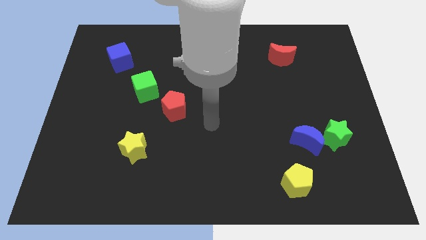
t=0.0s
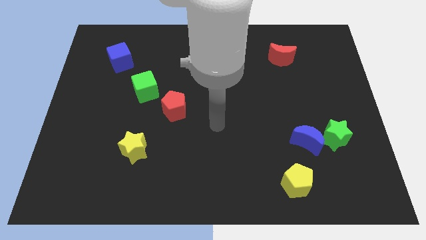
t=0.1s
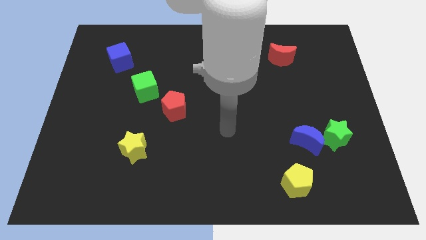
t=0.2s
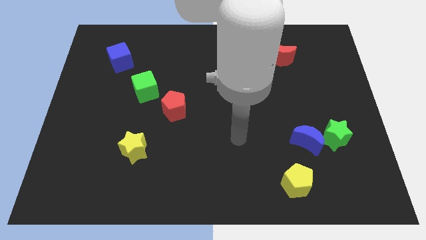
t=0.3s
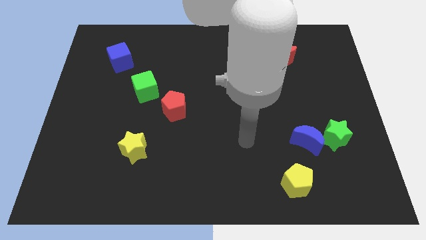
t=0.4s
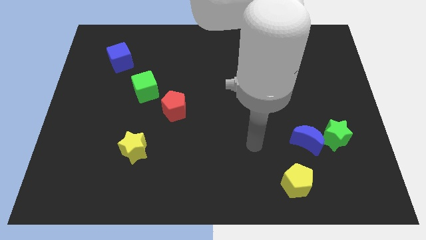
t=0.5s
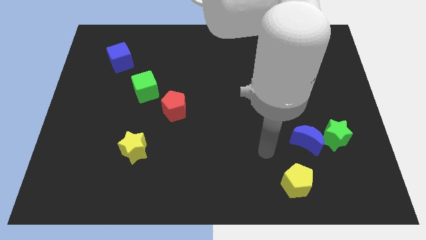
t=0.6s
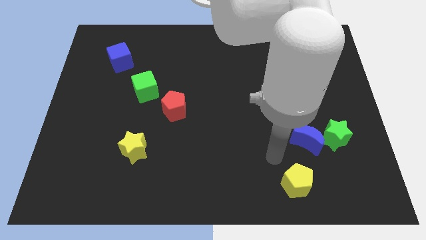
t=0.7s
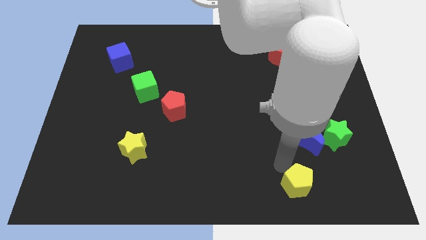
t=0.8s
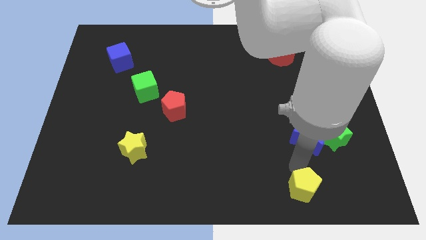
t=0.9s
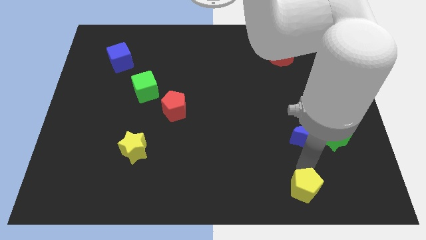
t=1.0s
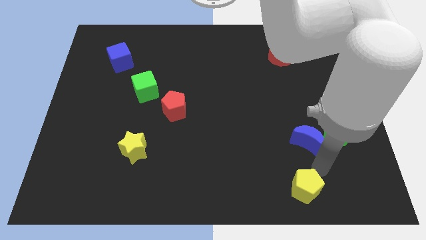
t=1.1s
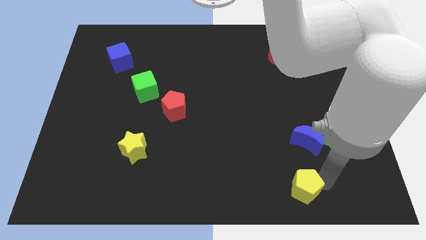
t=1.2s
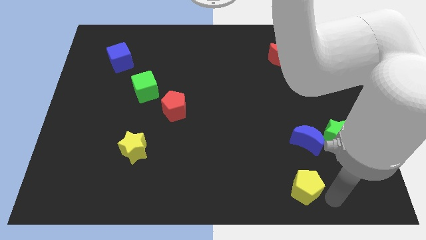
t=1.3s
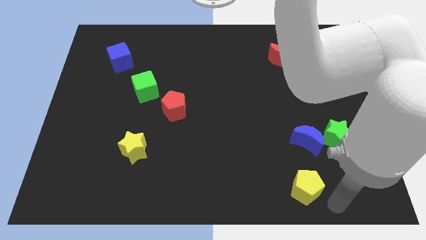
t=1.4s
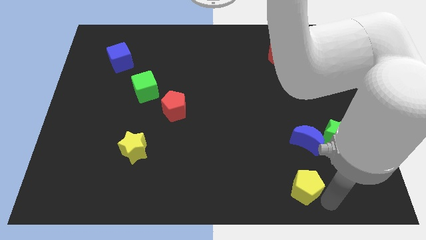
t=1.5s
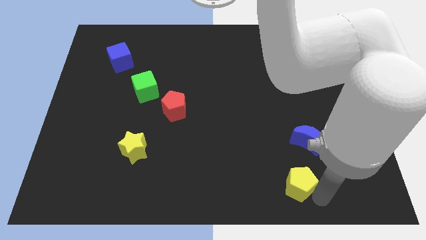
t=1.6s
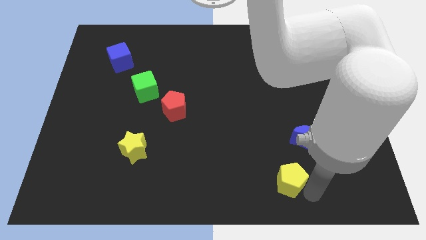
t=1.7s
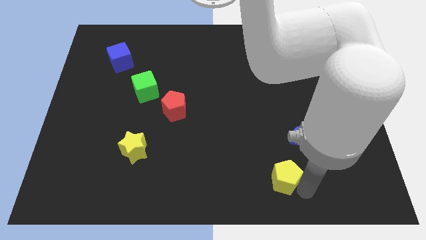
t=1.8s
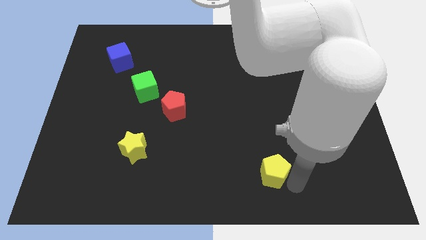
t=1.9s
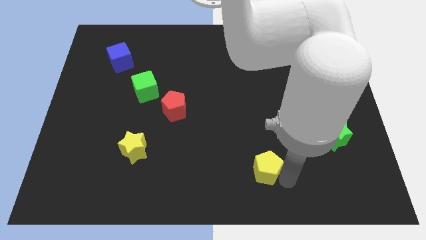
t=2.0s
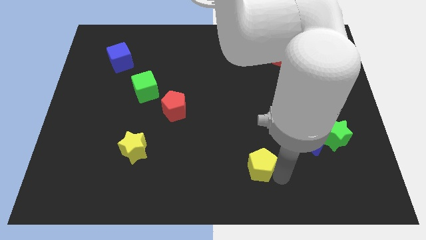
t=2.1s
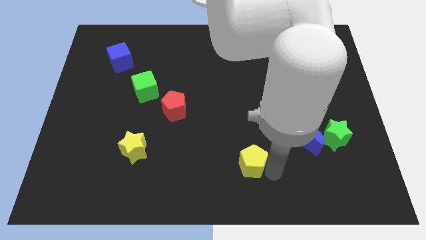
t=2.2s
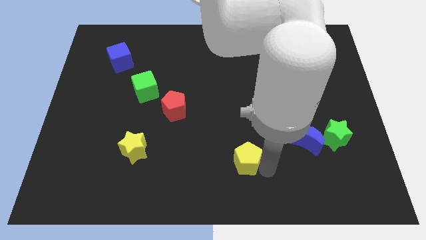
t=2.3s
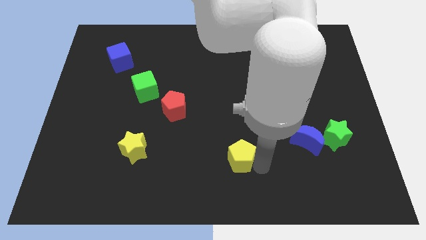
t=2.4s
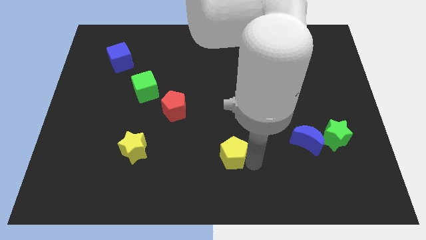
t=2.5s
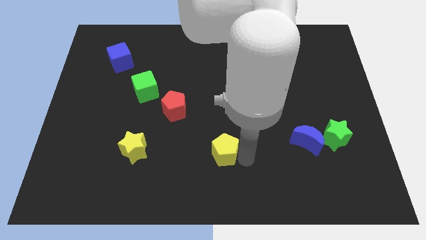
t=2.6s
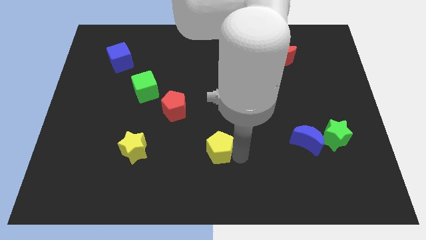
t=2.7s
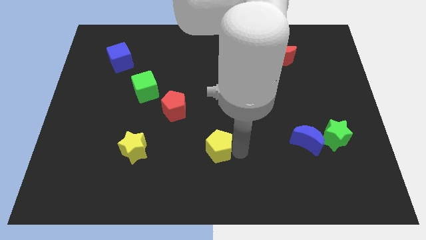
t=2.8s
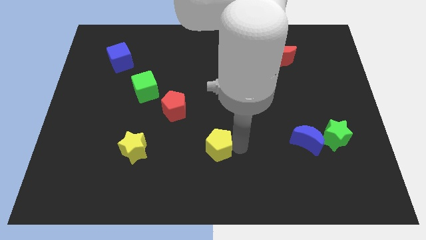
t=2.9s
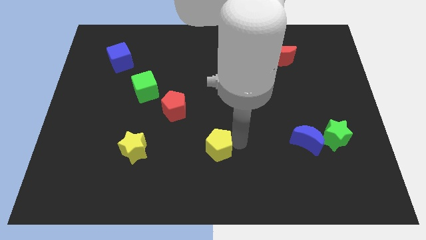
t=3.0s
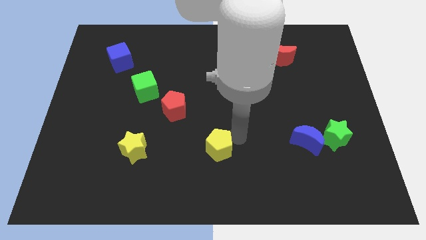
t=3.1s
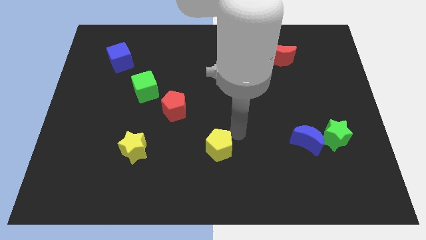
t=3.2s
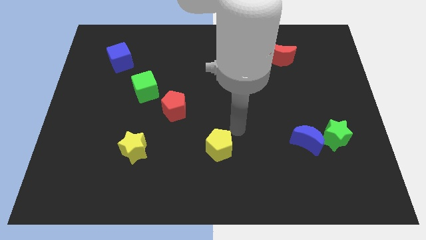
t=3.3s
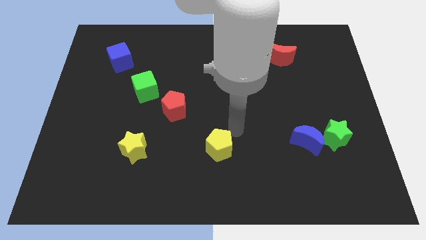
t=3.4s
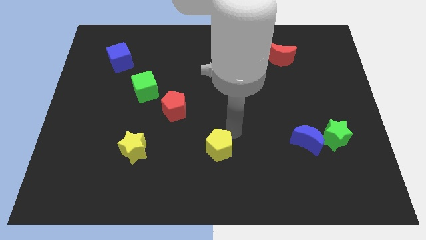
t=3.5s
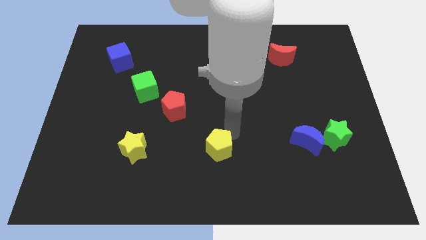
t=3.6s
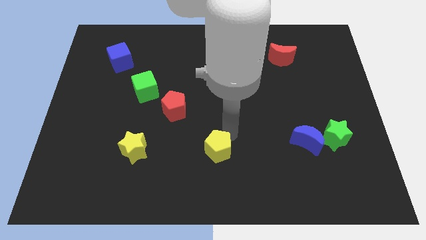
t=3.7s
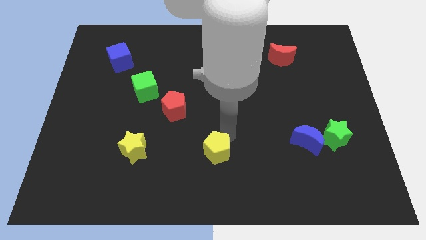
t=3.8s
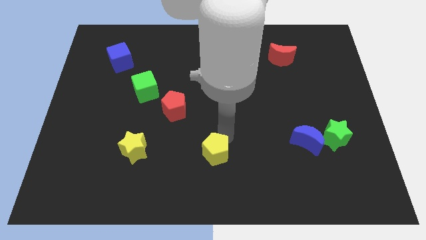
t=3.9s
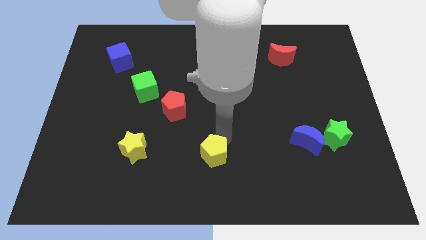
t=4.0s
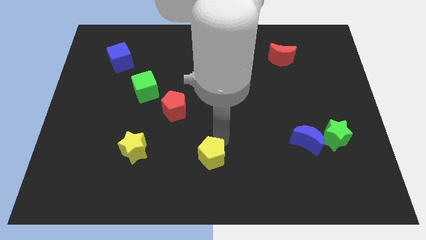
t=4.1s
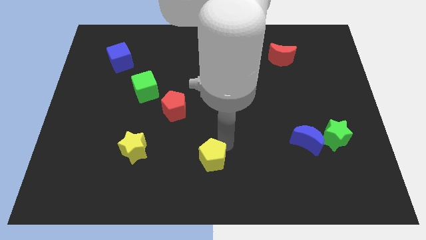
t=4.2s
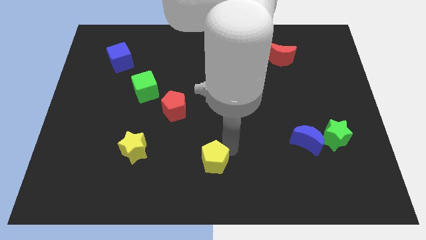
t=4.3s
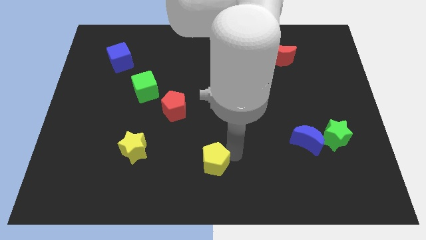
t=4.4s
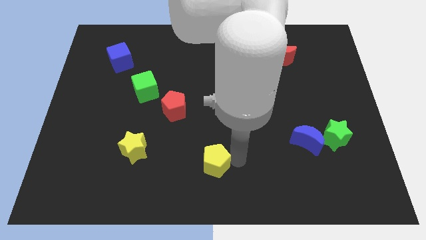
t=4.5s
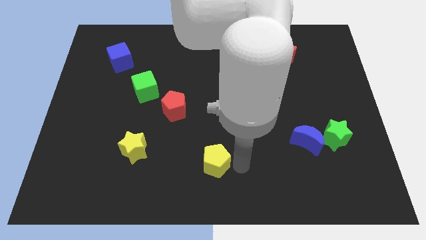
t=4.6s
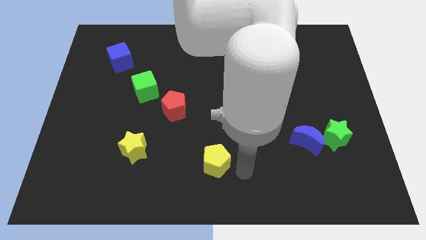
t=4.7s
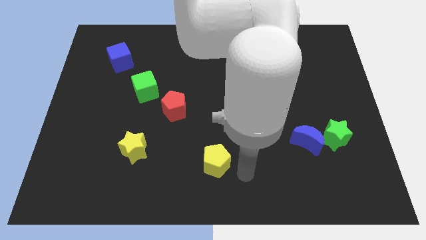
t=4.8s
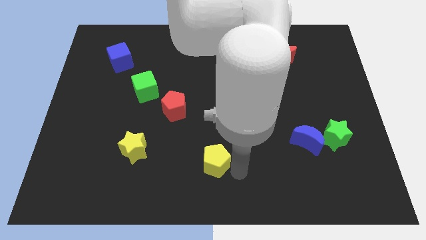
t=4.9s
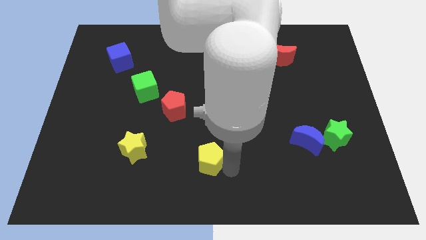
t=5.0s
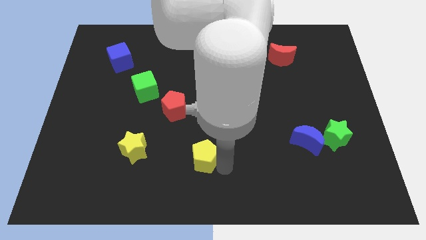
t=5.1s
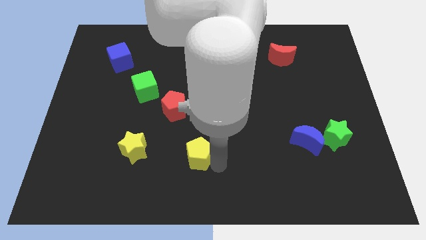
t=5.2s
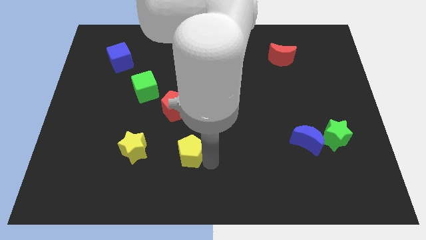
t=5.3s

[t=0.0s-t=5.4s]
move the yellow pentagon to the bottom of the red pentagon

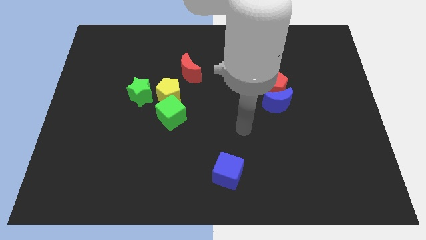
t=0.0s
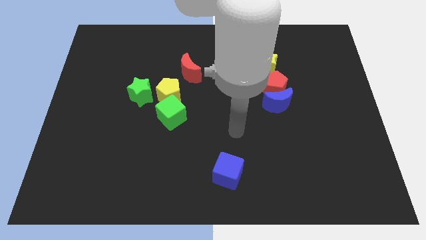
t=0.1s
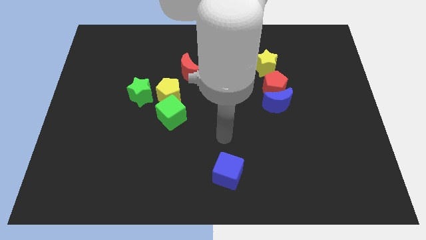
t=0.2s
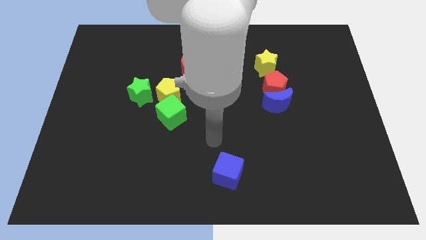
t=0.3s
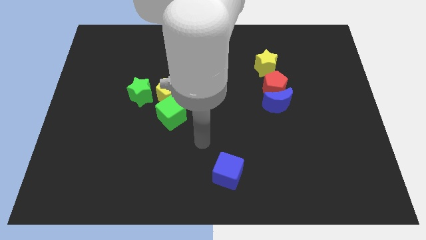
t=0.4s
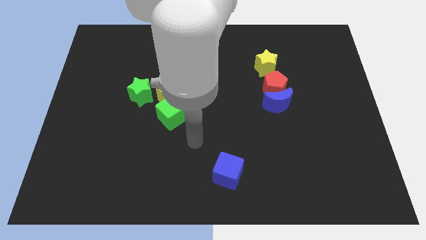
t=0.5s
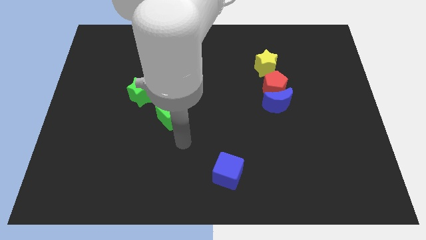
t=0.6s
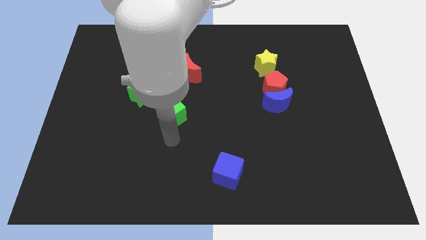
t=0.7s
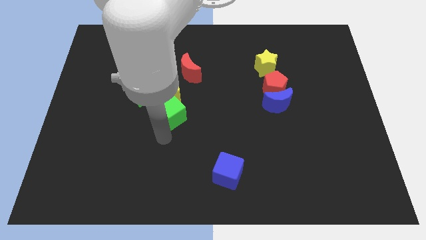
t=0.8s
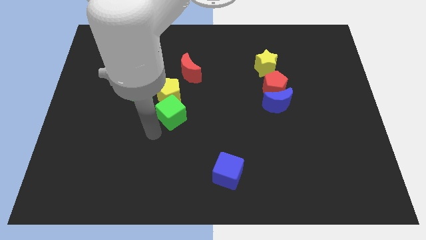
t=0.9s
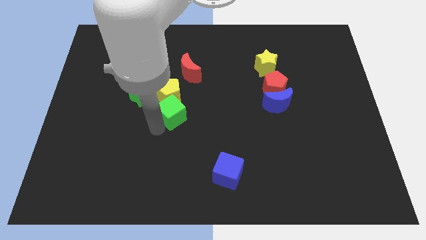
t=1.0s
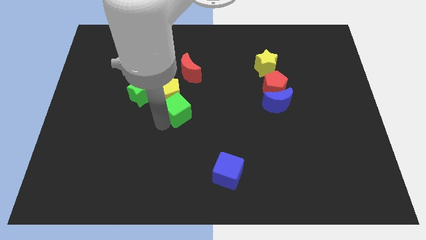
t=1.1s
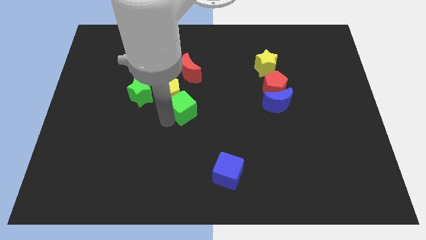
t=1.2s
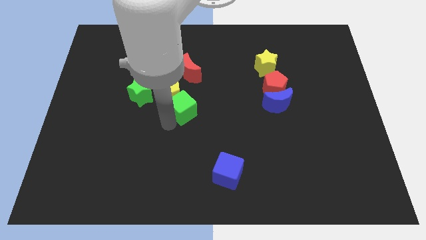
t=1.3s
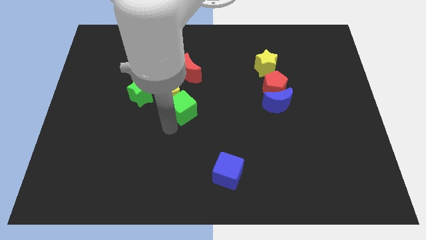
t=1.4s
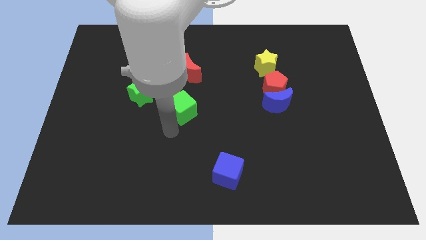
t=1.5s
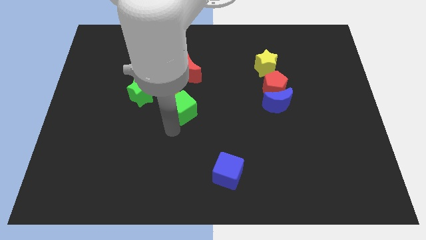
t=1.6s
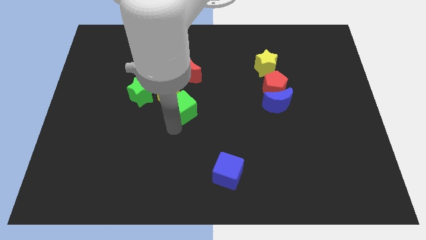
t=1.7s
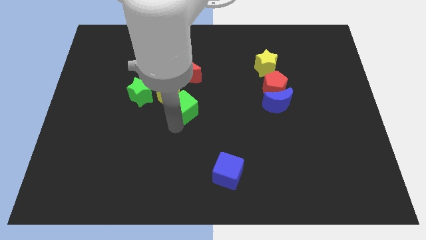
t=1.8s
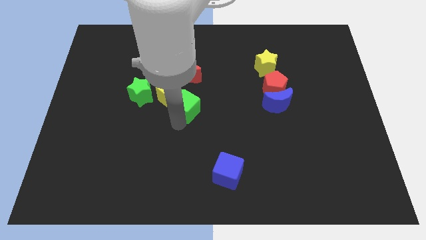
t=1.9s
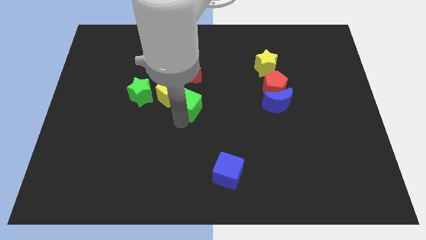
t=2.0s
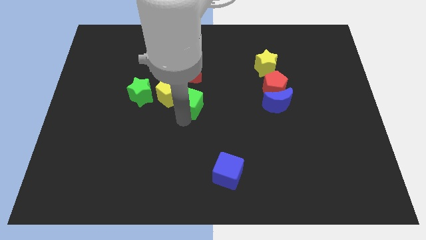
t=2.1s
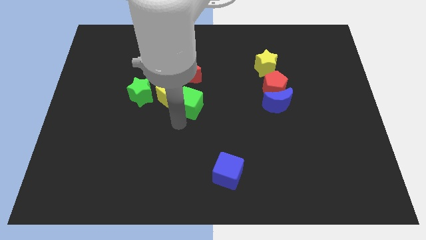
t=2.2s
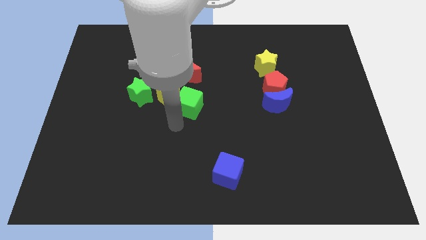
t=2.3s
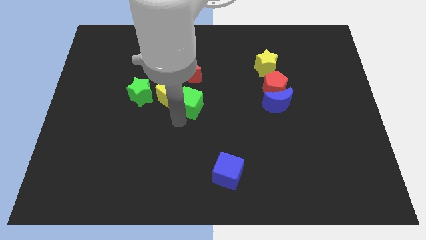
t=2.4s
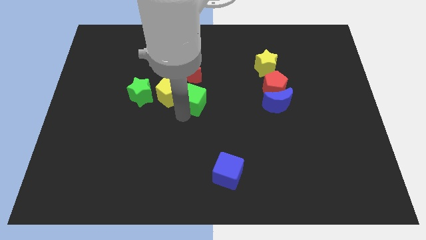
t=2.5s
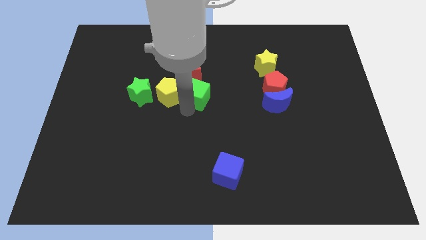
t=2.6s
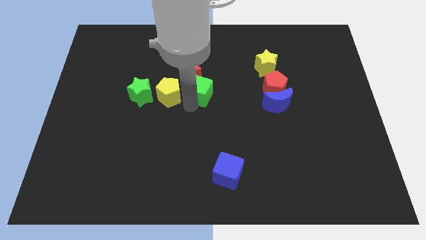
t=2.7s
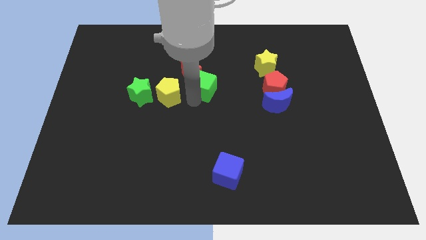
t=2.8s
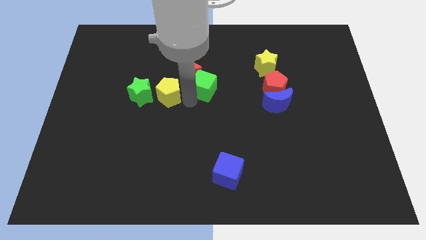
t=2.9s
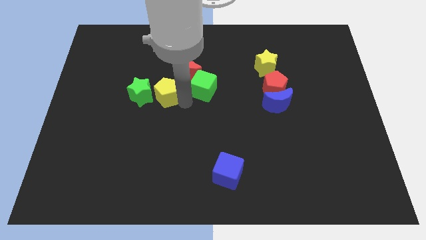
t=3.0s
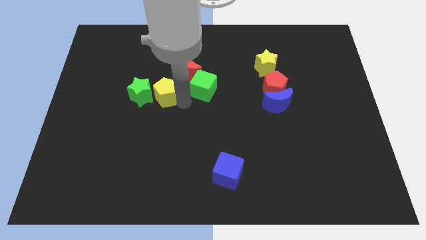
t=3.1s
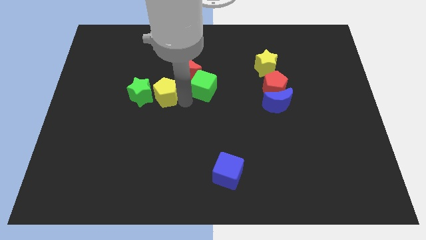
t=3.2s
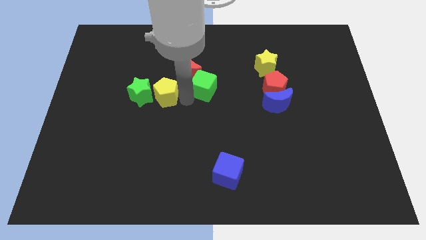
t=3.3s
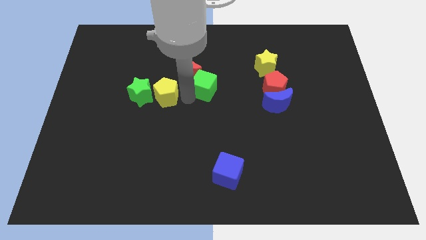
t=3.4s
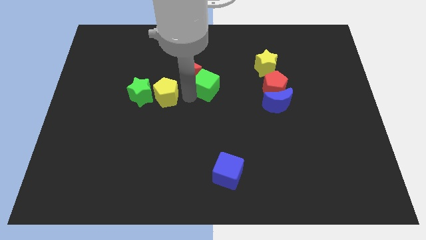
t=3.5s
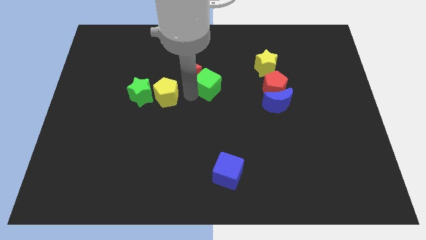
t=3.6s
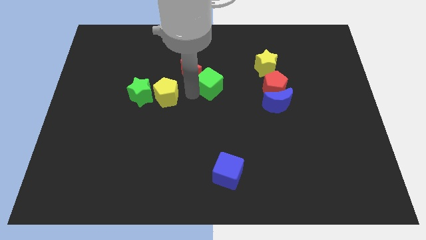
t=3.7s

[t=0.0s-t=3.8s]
slide the green cube just right of the red moon
